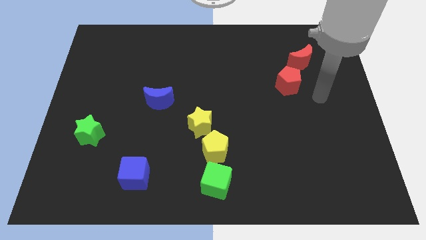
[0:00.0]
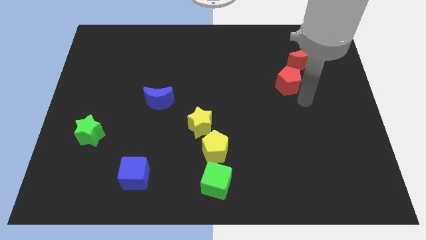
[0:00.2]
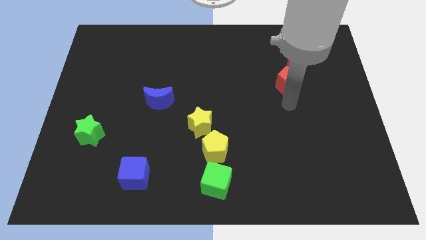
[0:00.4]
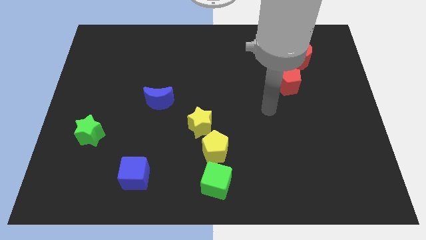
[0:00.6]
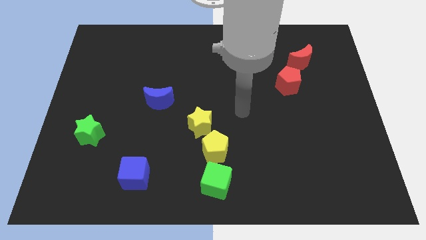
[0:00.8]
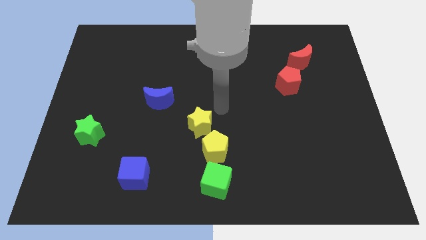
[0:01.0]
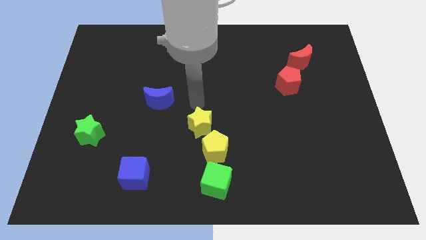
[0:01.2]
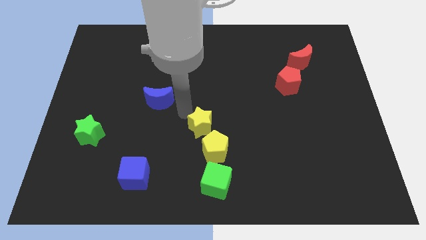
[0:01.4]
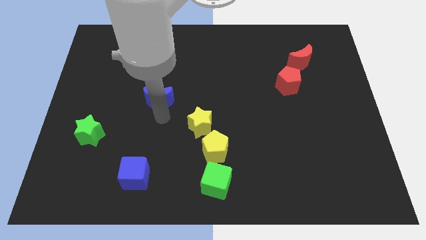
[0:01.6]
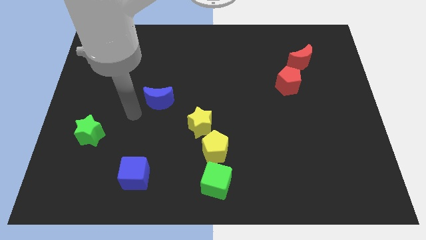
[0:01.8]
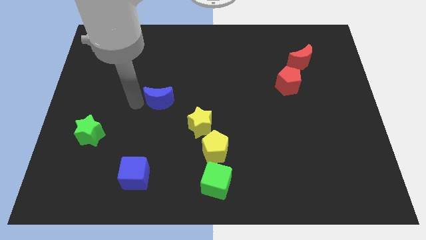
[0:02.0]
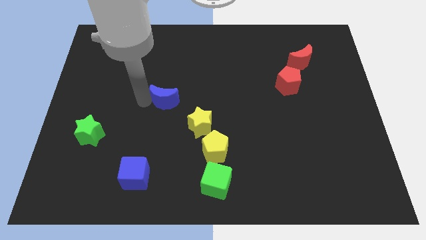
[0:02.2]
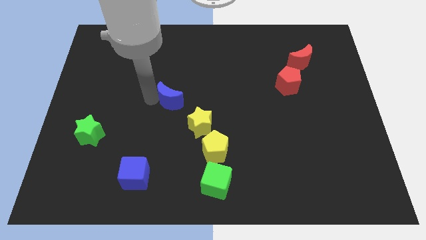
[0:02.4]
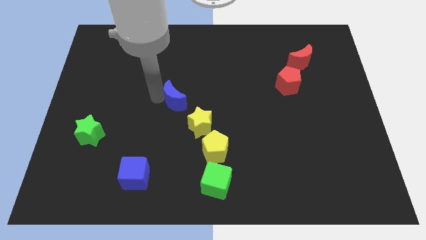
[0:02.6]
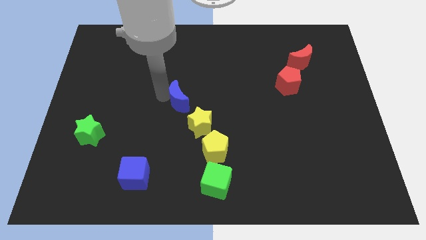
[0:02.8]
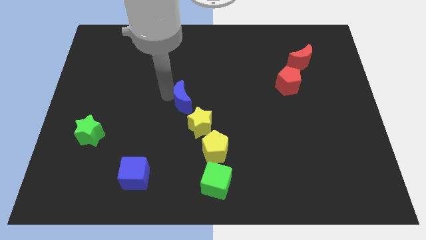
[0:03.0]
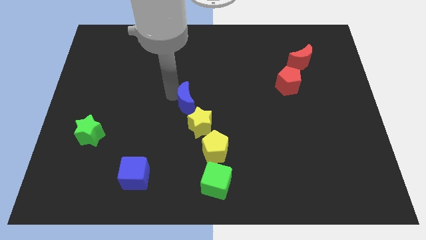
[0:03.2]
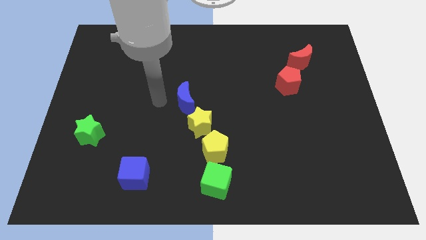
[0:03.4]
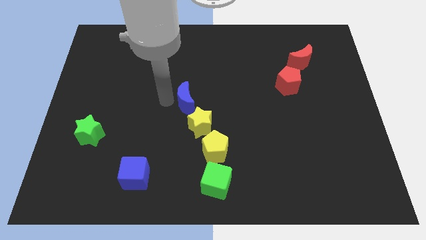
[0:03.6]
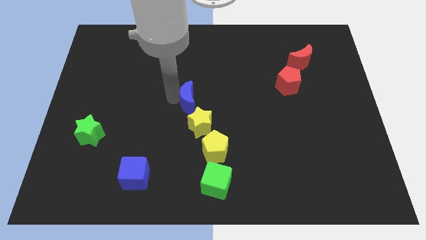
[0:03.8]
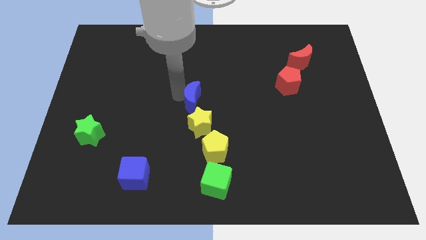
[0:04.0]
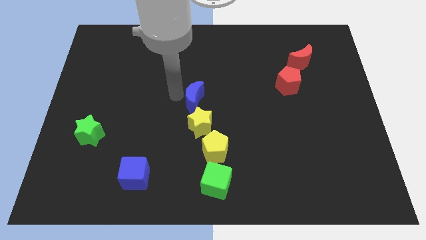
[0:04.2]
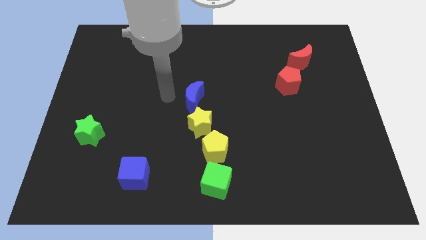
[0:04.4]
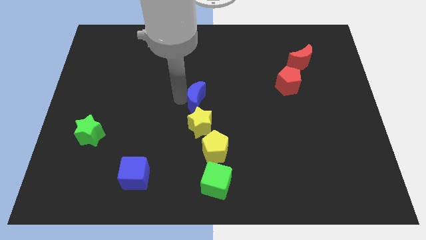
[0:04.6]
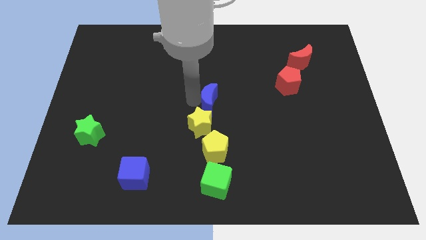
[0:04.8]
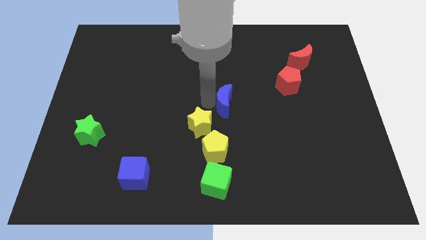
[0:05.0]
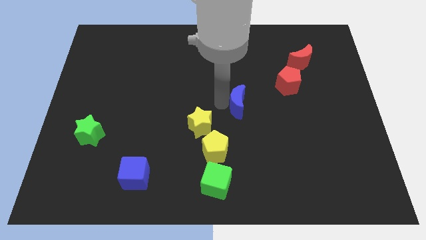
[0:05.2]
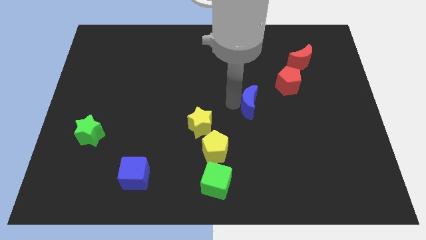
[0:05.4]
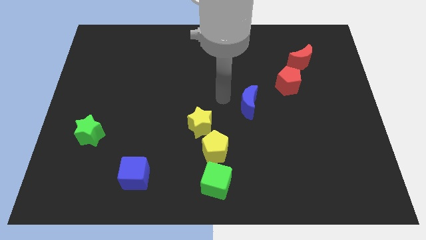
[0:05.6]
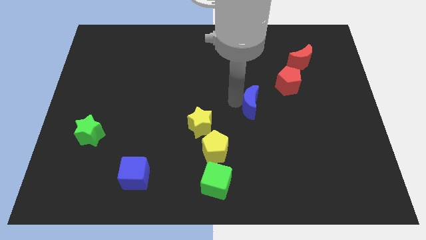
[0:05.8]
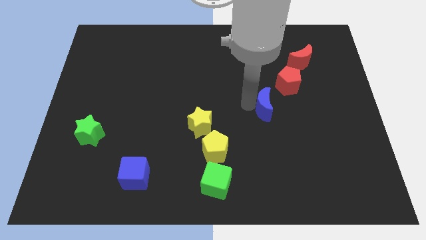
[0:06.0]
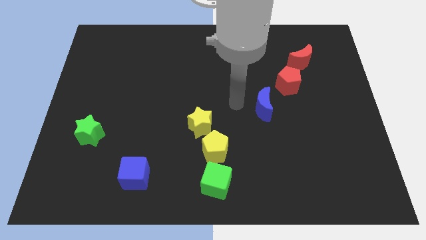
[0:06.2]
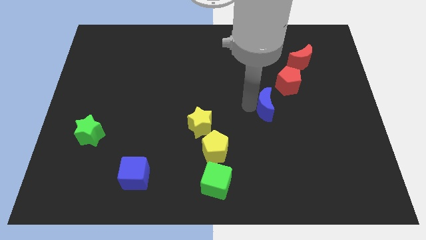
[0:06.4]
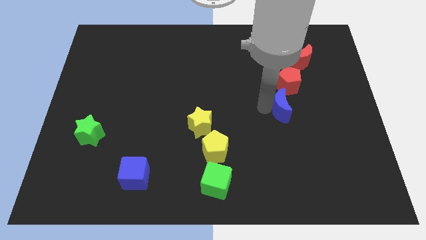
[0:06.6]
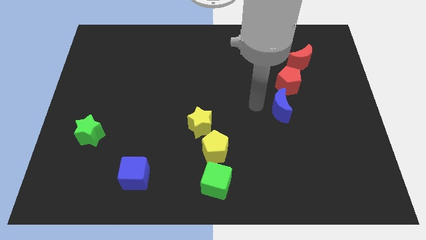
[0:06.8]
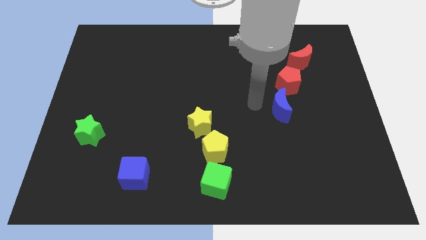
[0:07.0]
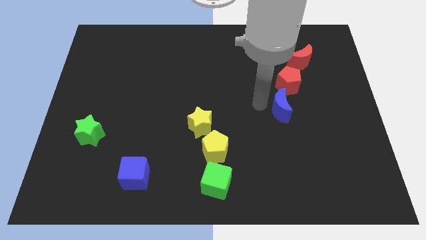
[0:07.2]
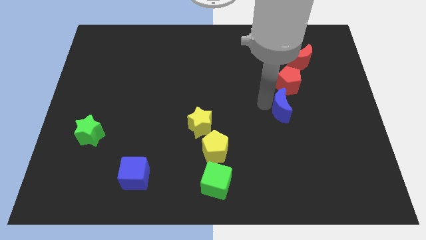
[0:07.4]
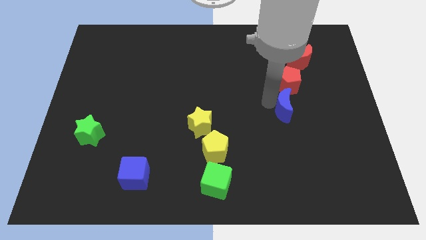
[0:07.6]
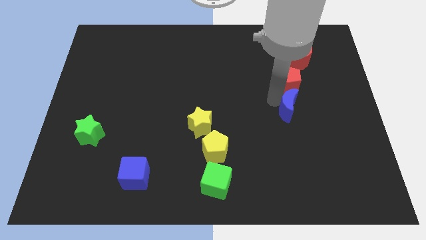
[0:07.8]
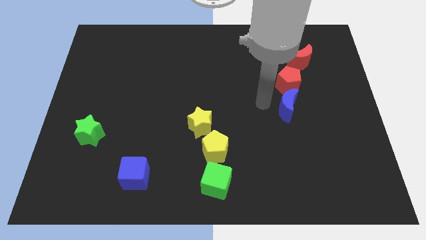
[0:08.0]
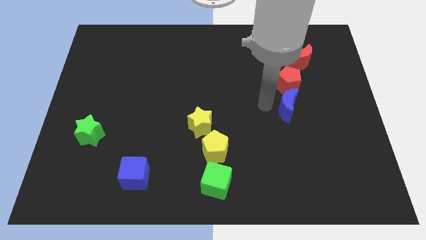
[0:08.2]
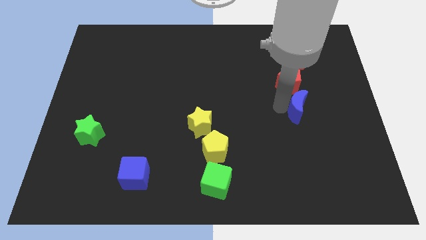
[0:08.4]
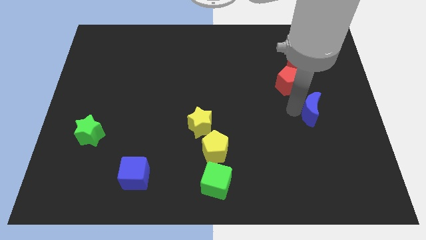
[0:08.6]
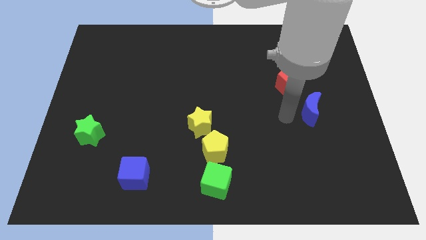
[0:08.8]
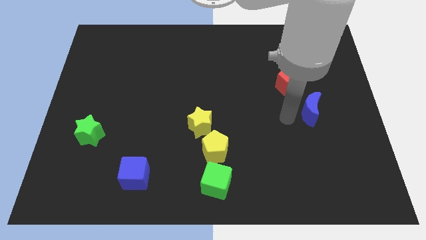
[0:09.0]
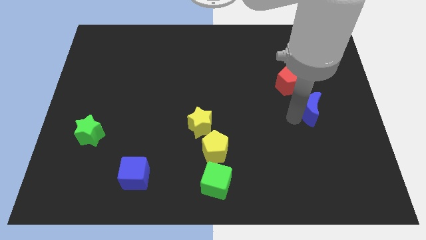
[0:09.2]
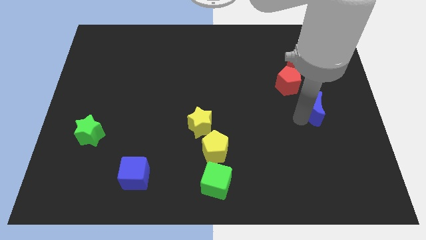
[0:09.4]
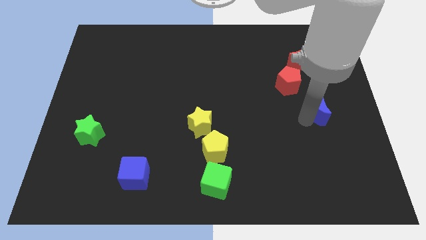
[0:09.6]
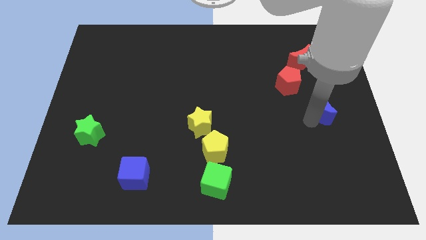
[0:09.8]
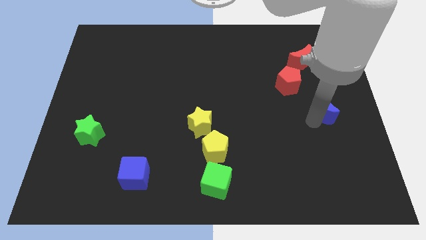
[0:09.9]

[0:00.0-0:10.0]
push the blue moon to the right side of the board

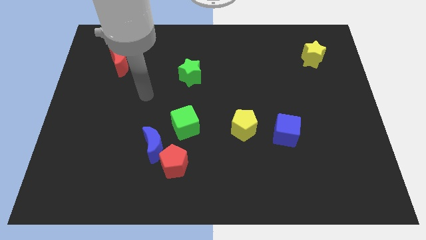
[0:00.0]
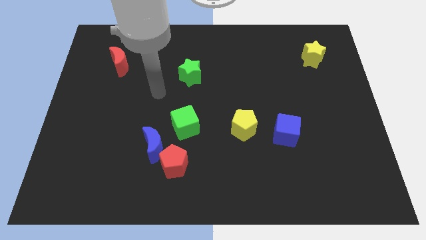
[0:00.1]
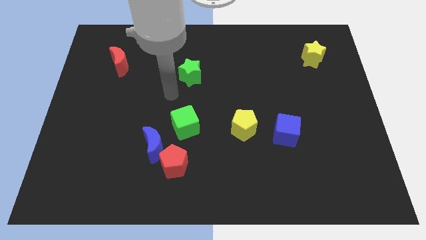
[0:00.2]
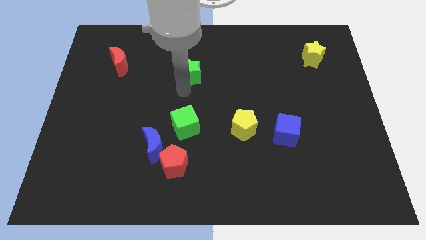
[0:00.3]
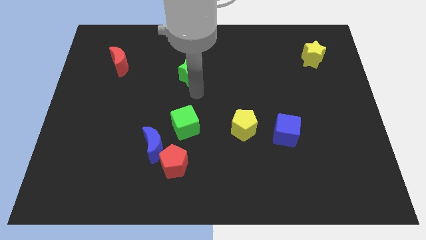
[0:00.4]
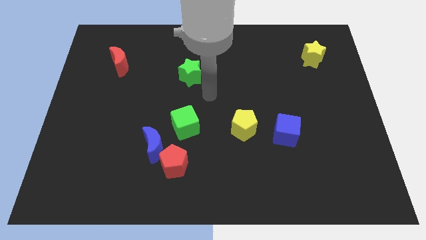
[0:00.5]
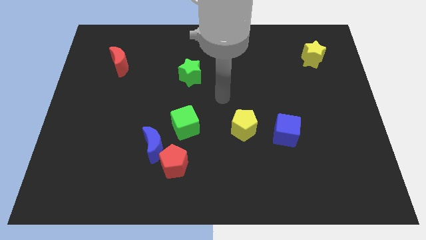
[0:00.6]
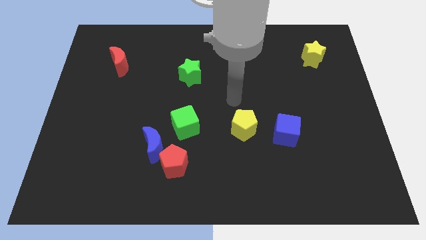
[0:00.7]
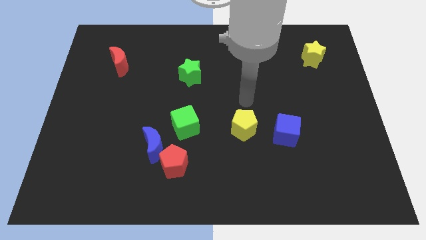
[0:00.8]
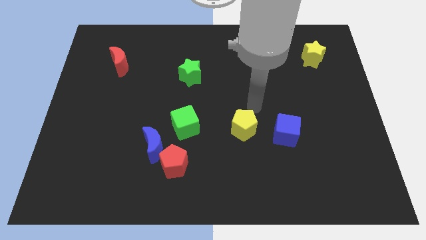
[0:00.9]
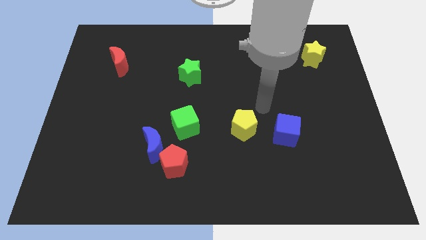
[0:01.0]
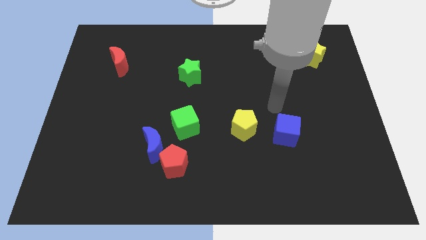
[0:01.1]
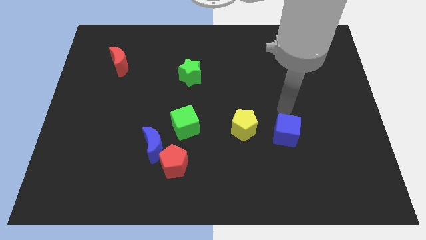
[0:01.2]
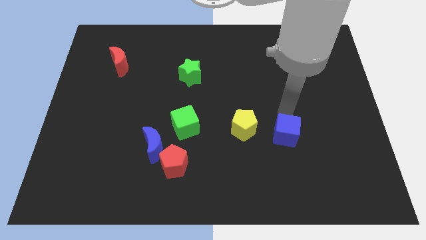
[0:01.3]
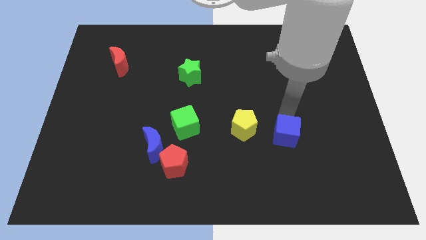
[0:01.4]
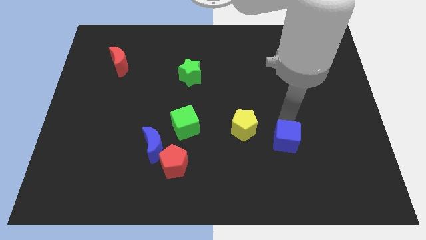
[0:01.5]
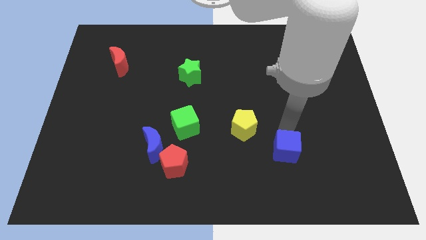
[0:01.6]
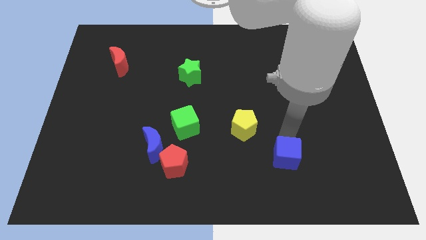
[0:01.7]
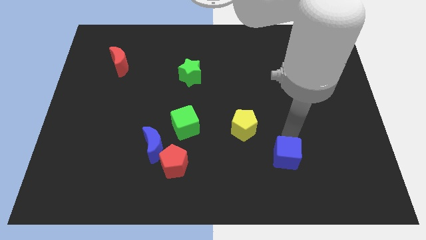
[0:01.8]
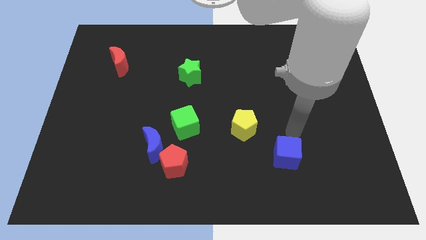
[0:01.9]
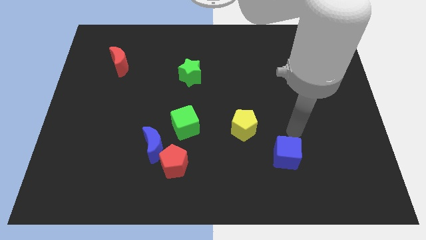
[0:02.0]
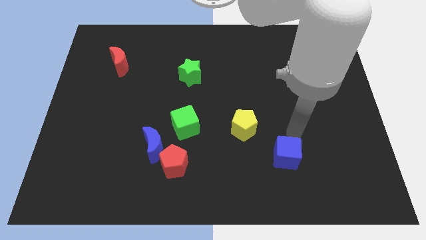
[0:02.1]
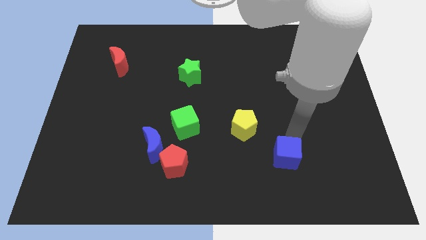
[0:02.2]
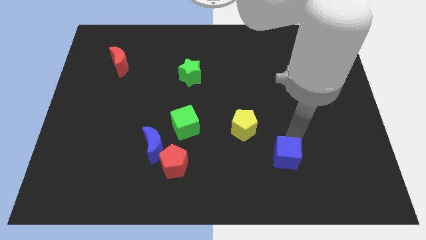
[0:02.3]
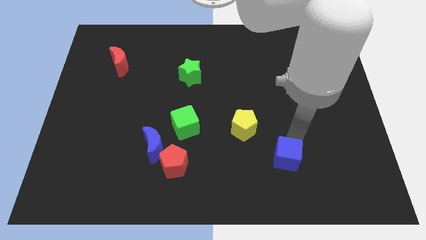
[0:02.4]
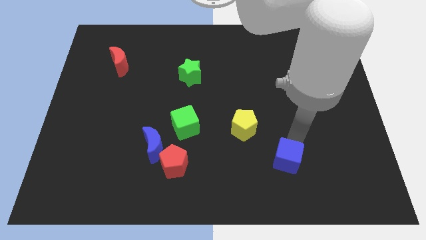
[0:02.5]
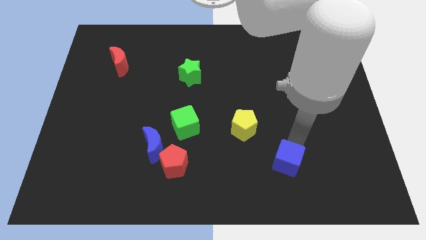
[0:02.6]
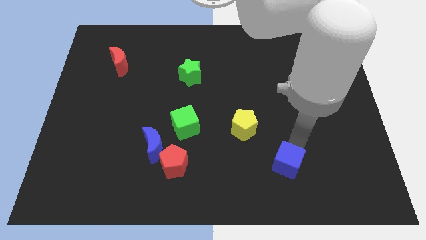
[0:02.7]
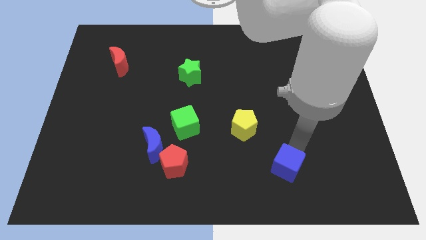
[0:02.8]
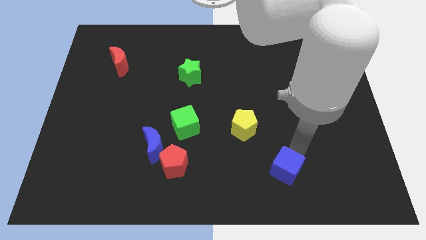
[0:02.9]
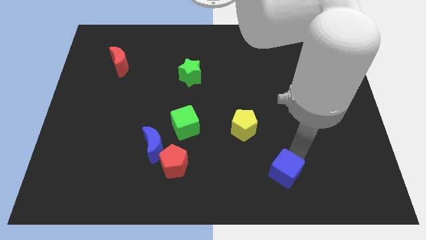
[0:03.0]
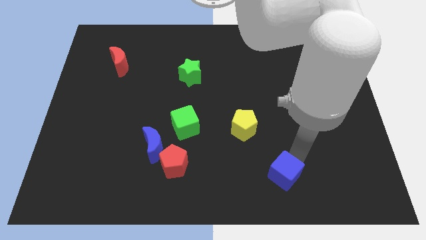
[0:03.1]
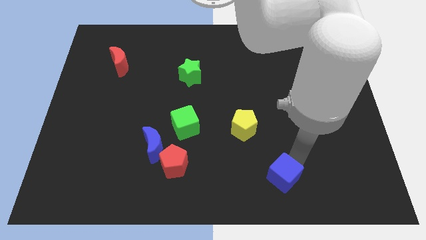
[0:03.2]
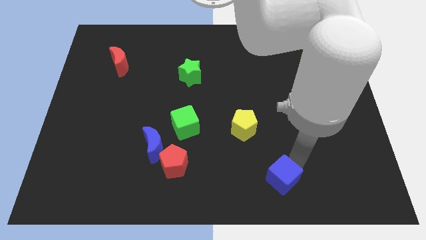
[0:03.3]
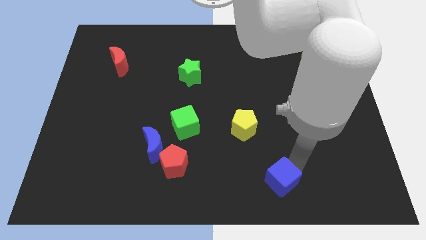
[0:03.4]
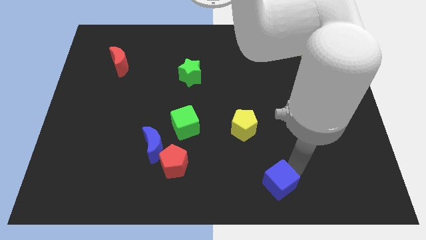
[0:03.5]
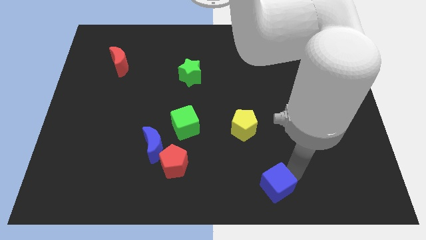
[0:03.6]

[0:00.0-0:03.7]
slide the blue cube to the bottom
